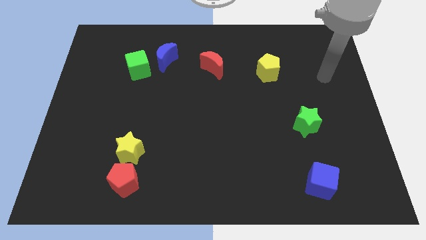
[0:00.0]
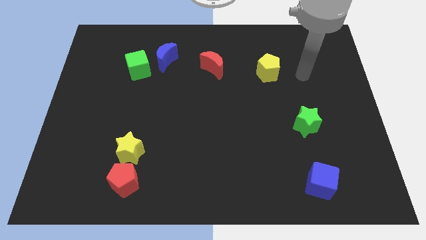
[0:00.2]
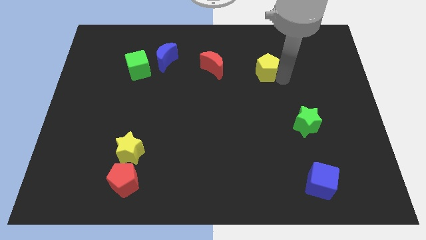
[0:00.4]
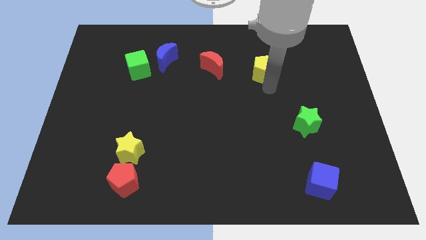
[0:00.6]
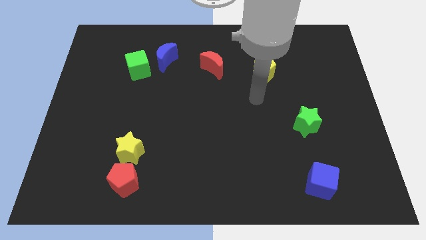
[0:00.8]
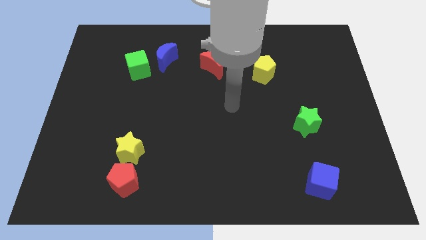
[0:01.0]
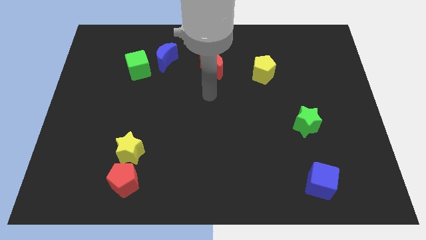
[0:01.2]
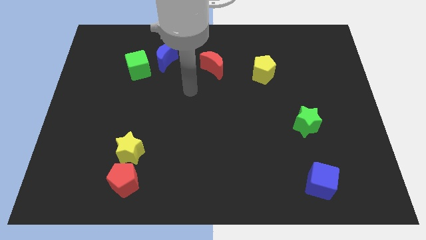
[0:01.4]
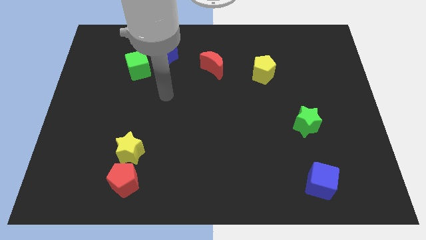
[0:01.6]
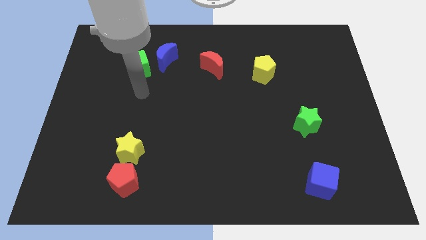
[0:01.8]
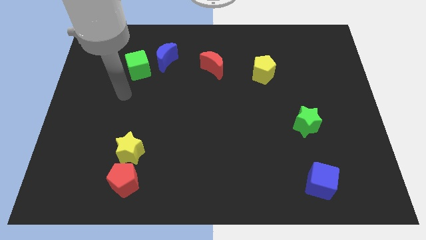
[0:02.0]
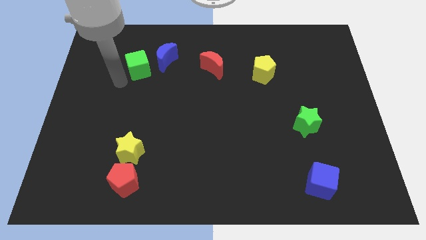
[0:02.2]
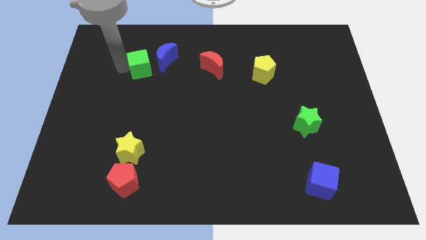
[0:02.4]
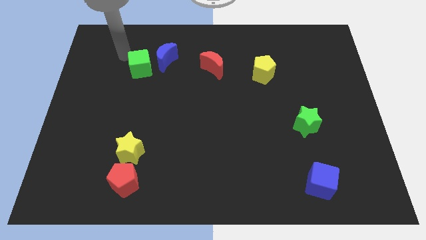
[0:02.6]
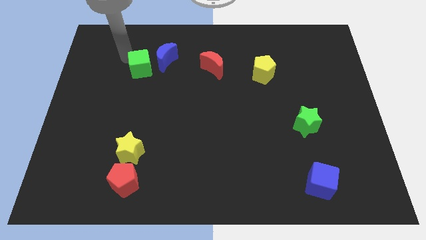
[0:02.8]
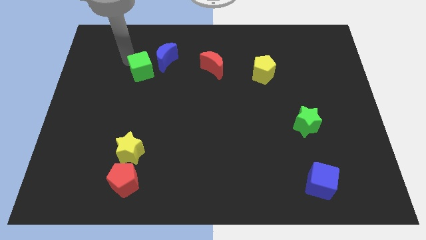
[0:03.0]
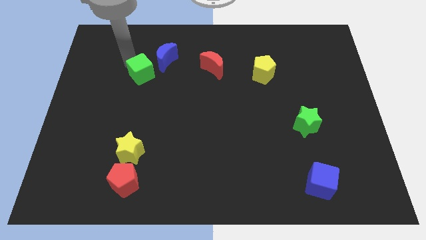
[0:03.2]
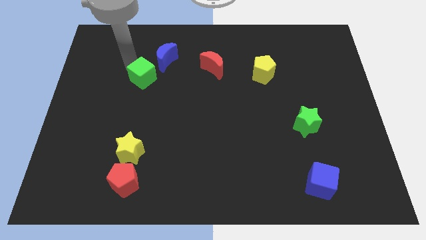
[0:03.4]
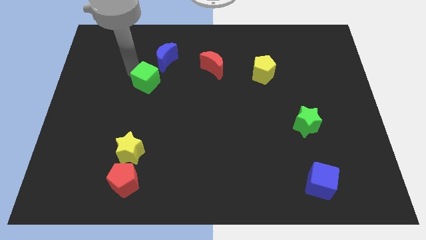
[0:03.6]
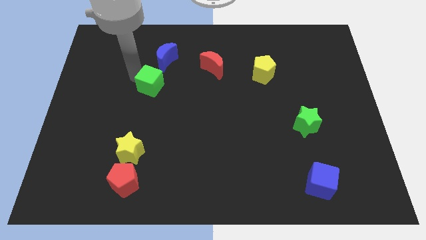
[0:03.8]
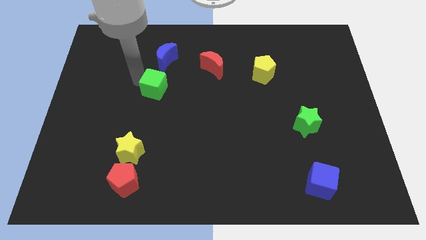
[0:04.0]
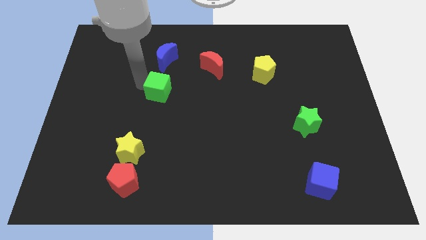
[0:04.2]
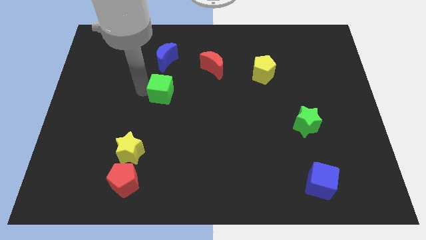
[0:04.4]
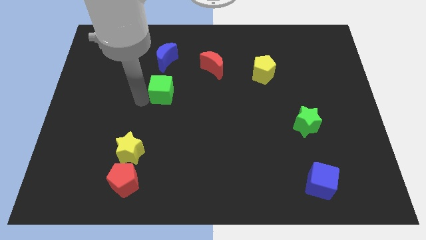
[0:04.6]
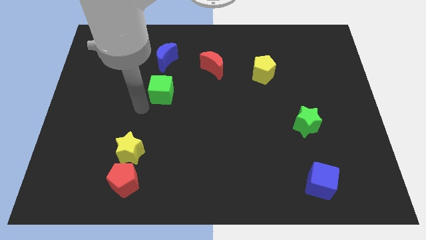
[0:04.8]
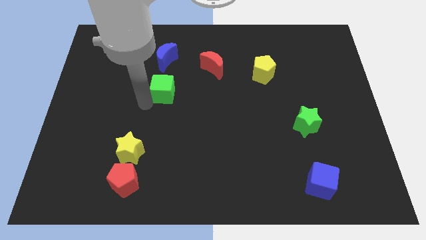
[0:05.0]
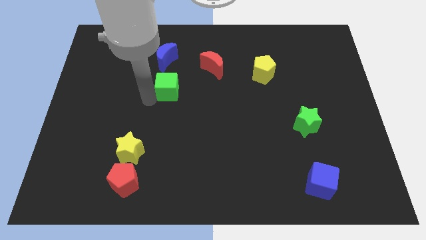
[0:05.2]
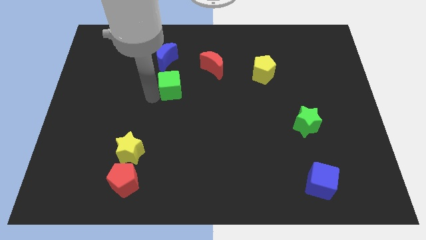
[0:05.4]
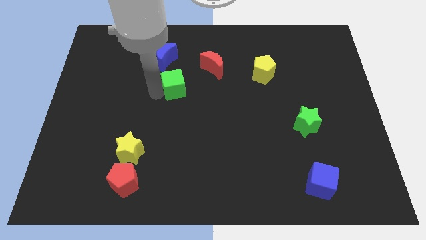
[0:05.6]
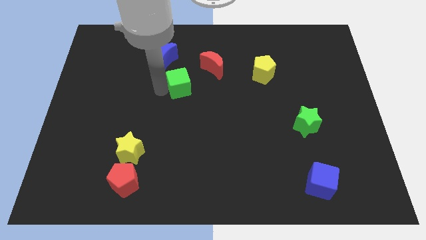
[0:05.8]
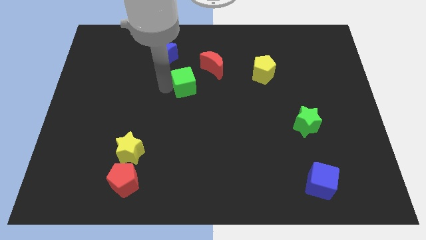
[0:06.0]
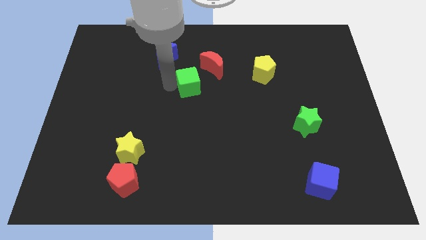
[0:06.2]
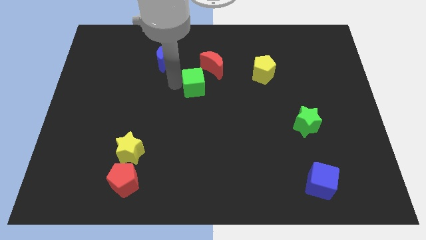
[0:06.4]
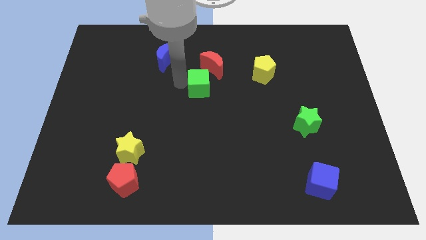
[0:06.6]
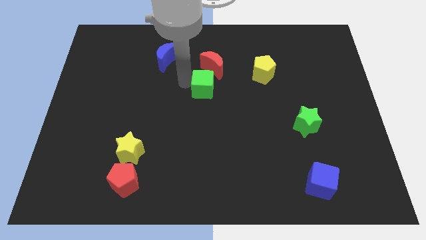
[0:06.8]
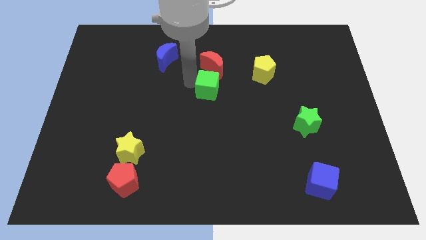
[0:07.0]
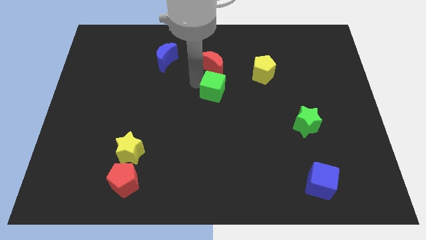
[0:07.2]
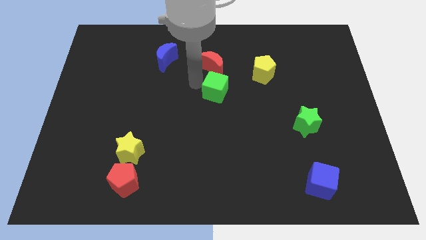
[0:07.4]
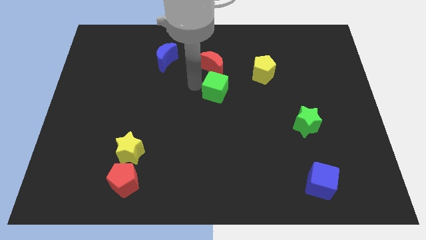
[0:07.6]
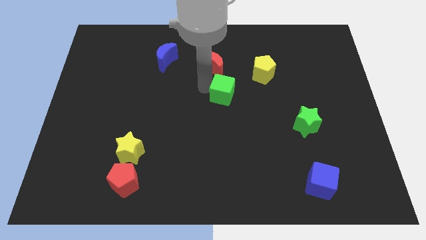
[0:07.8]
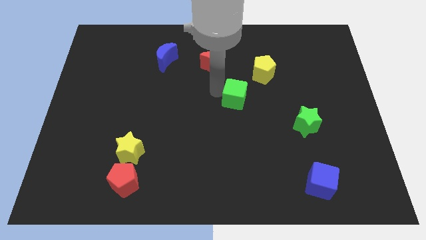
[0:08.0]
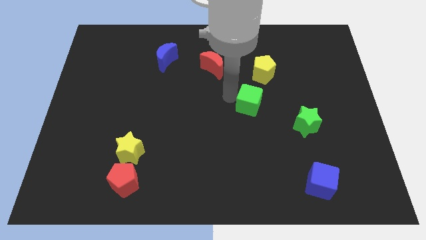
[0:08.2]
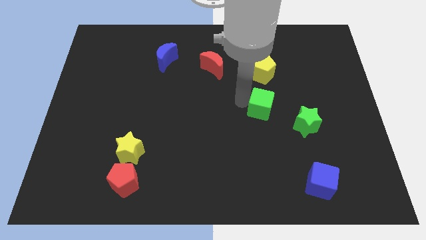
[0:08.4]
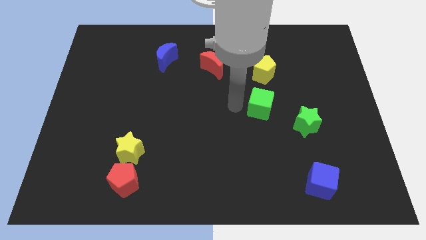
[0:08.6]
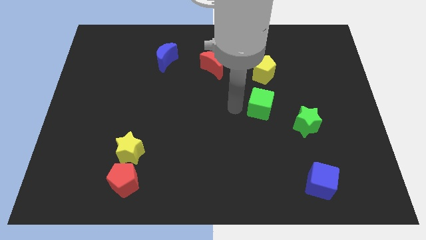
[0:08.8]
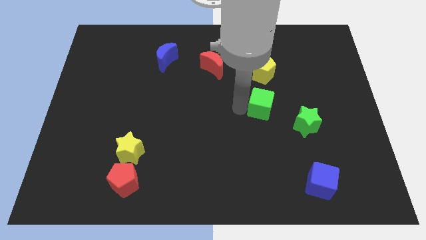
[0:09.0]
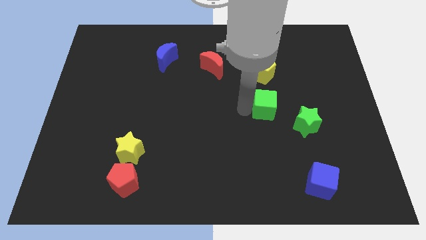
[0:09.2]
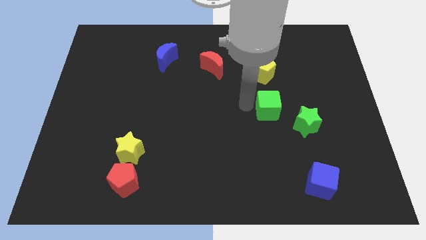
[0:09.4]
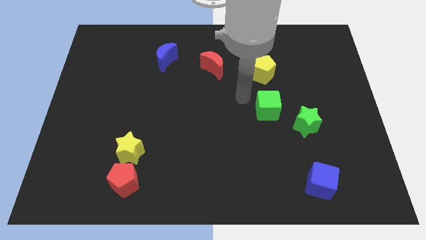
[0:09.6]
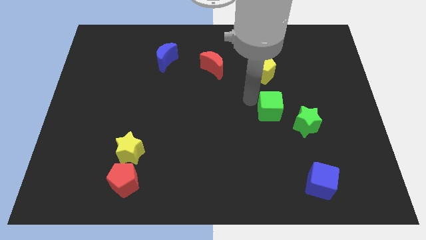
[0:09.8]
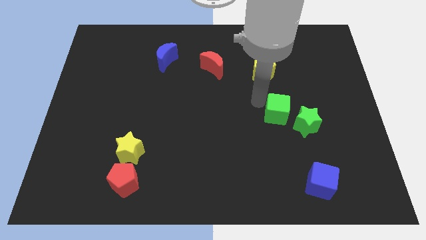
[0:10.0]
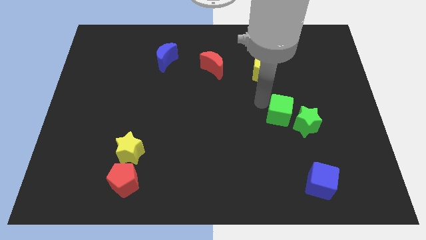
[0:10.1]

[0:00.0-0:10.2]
slide the green cube next to the green star

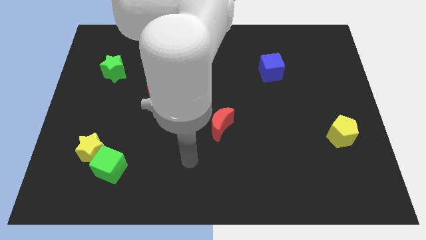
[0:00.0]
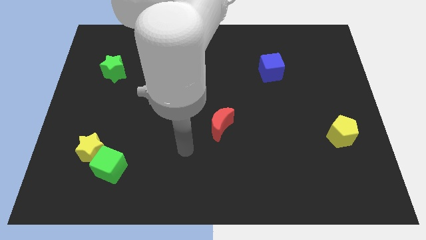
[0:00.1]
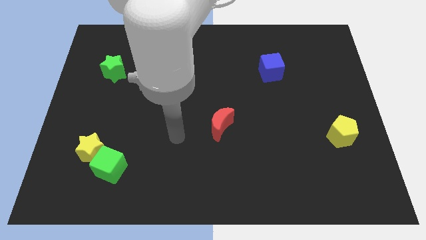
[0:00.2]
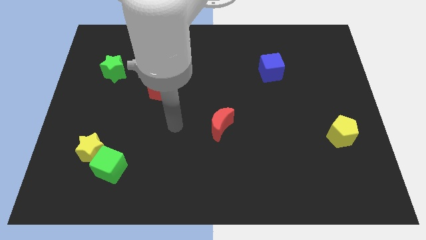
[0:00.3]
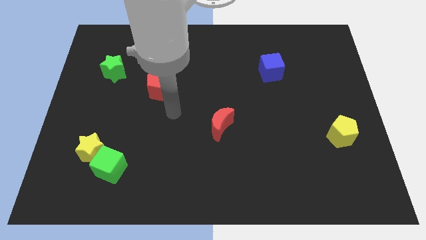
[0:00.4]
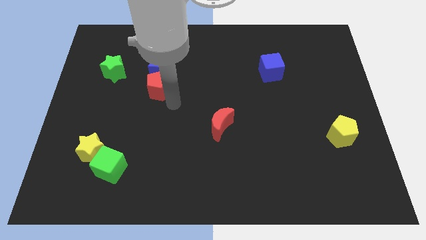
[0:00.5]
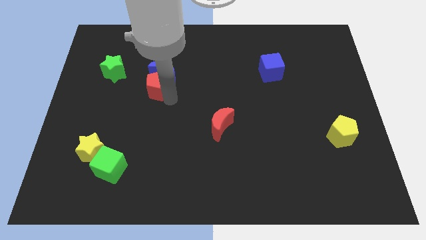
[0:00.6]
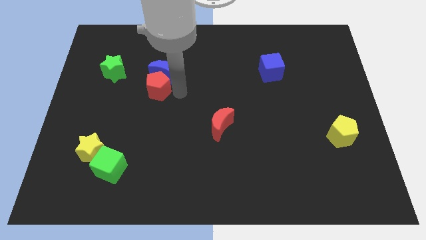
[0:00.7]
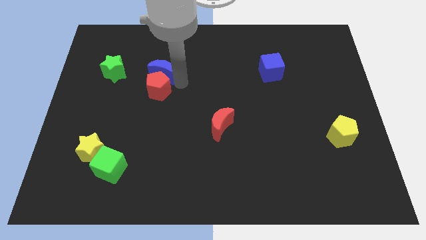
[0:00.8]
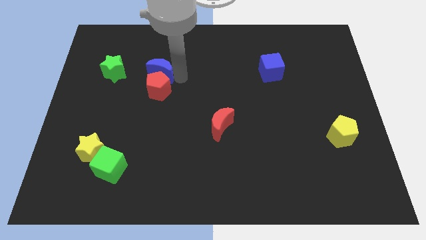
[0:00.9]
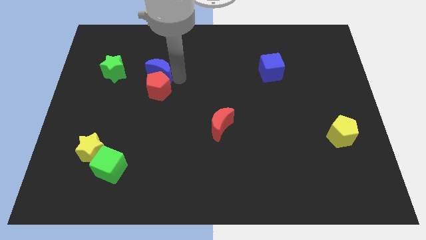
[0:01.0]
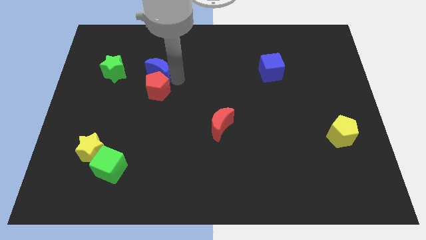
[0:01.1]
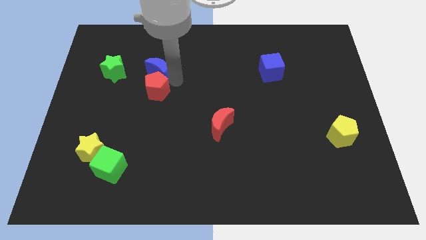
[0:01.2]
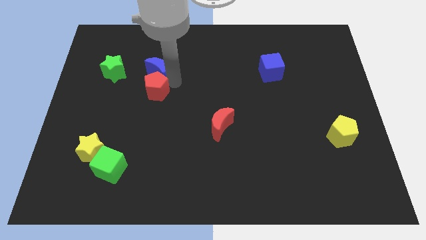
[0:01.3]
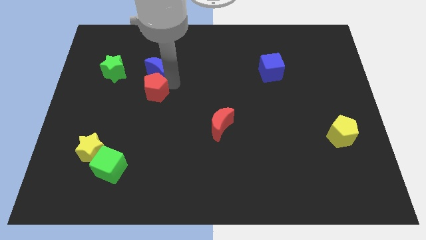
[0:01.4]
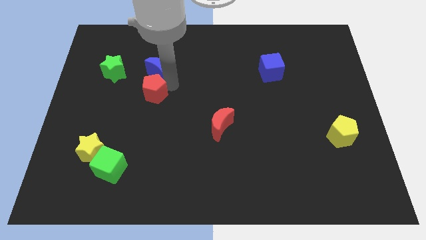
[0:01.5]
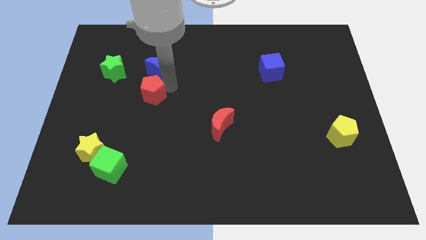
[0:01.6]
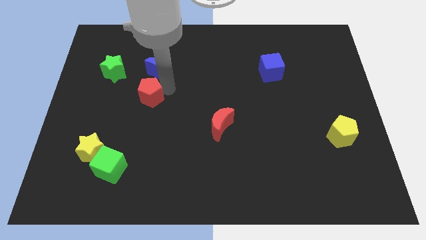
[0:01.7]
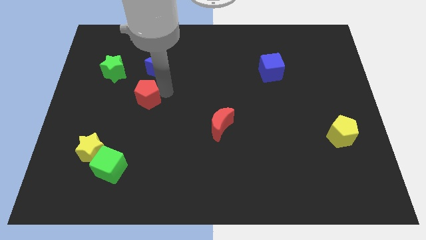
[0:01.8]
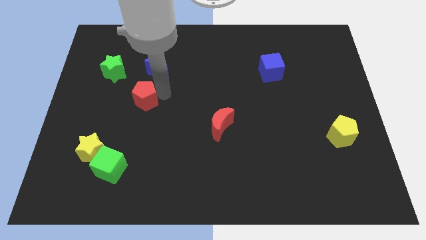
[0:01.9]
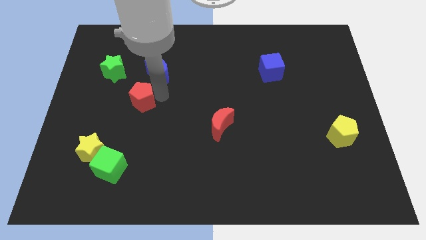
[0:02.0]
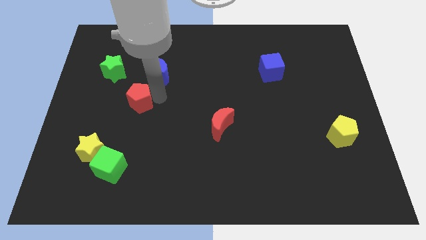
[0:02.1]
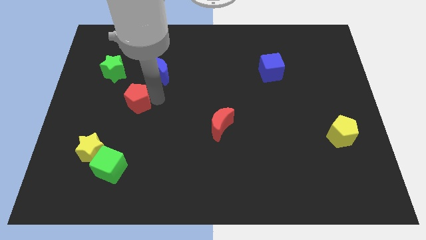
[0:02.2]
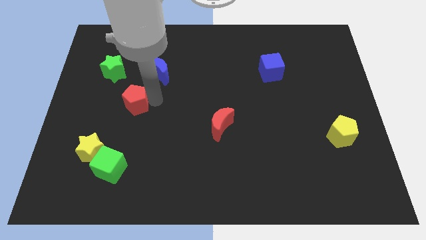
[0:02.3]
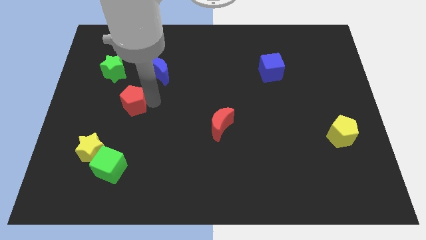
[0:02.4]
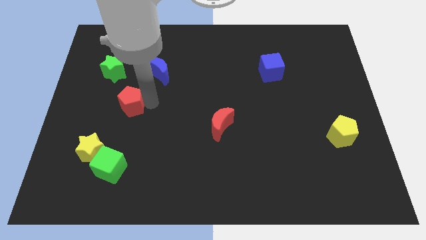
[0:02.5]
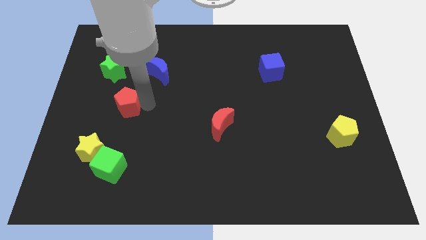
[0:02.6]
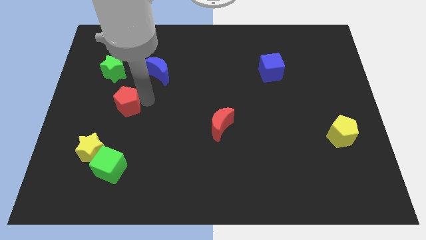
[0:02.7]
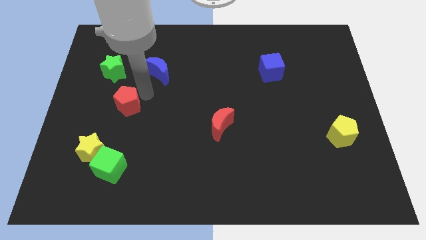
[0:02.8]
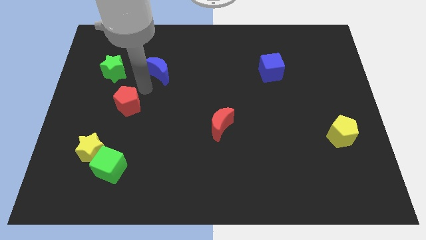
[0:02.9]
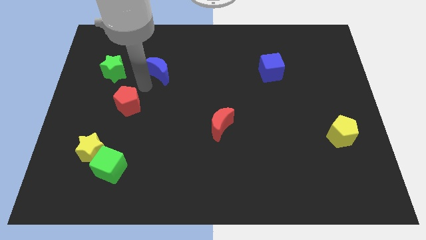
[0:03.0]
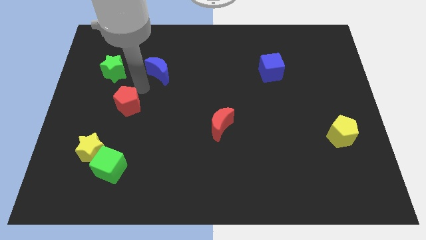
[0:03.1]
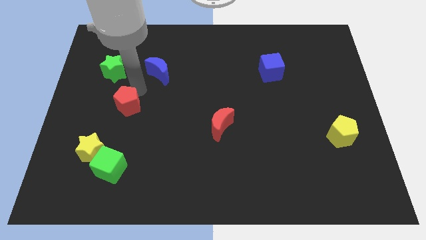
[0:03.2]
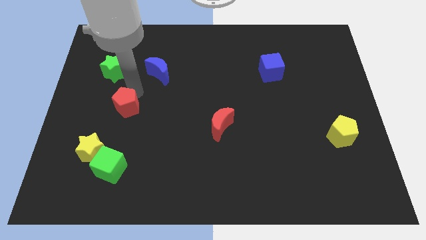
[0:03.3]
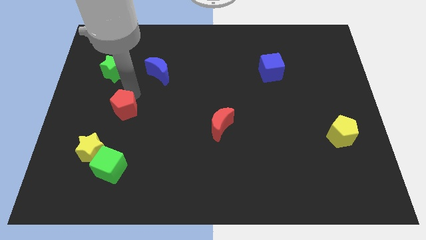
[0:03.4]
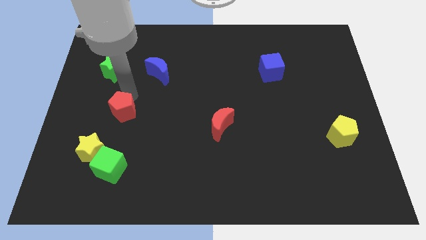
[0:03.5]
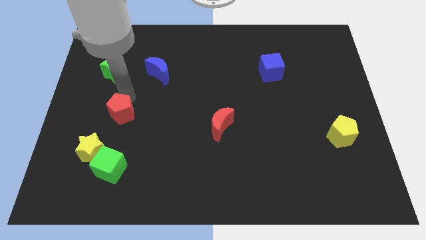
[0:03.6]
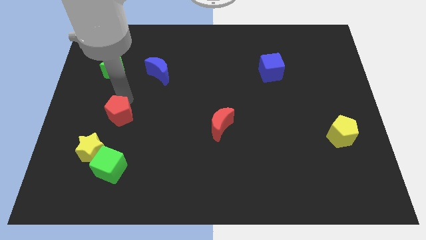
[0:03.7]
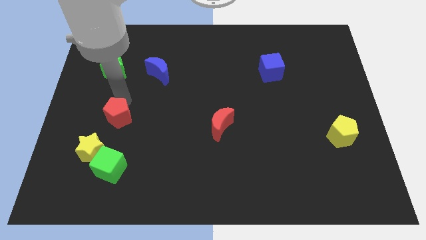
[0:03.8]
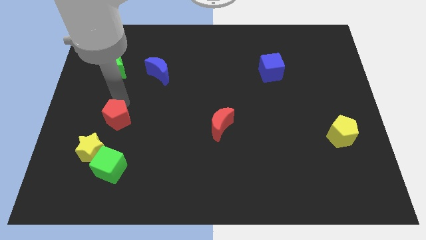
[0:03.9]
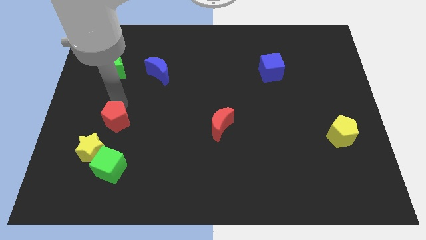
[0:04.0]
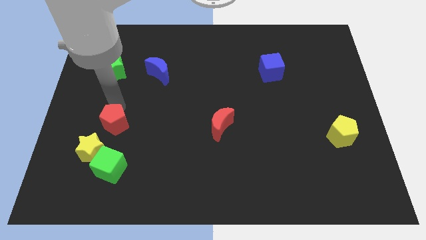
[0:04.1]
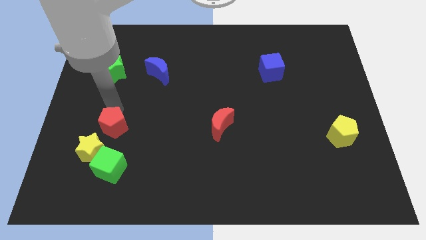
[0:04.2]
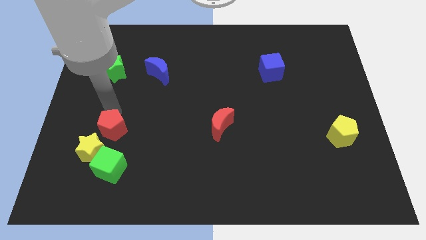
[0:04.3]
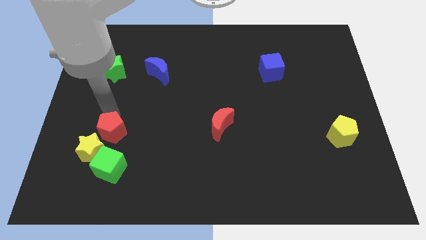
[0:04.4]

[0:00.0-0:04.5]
move the red pentagon close to the yellow star
